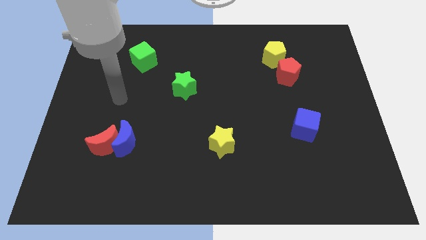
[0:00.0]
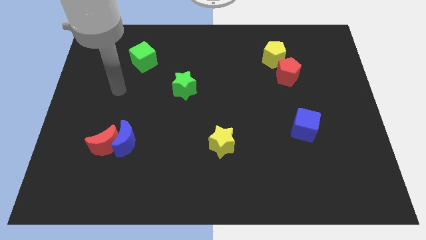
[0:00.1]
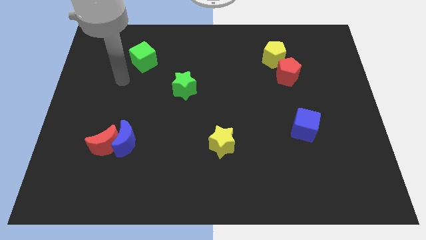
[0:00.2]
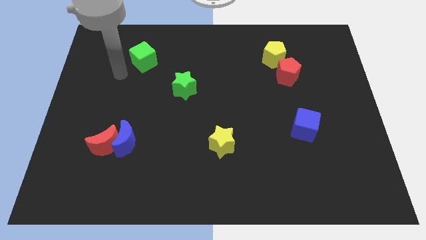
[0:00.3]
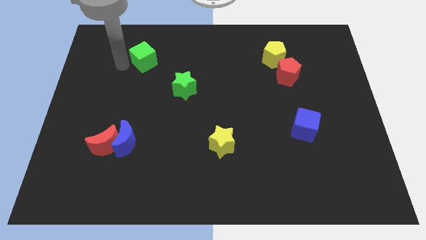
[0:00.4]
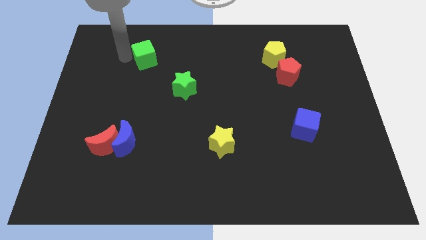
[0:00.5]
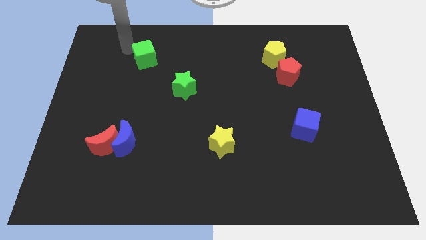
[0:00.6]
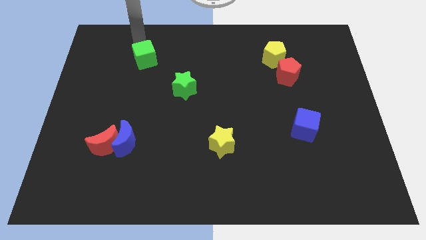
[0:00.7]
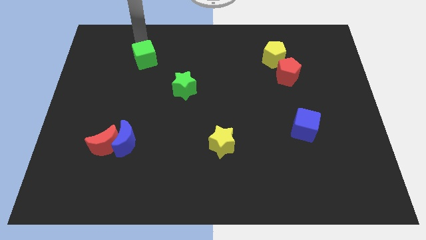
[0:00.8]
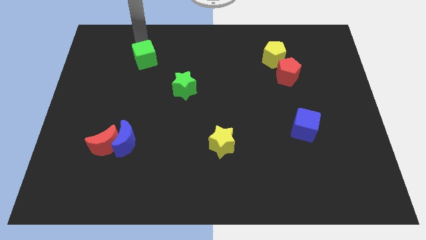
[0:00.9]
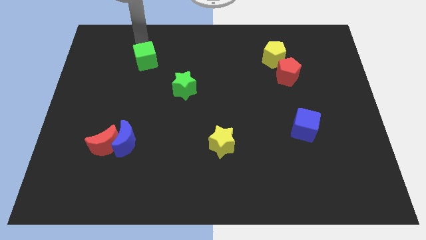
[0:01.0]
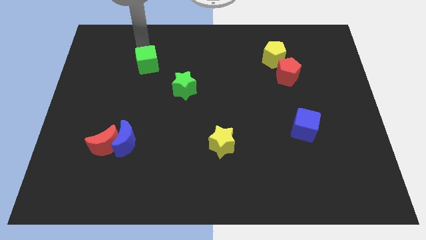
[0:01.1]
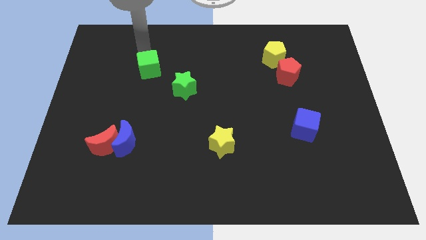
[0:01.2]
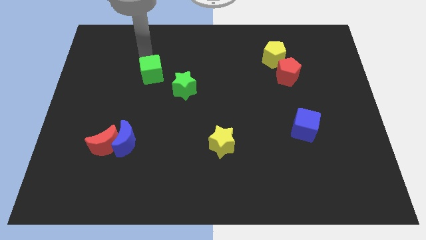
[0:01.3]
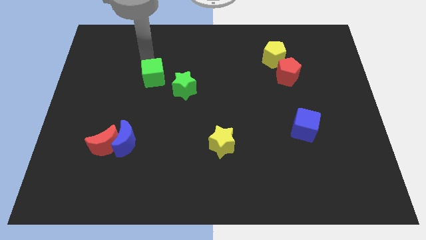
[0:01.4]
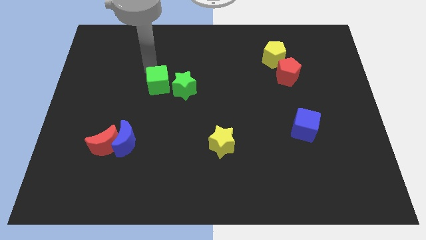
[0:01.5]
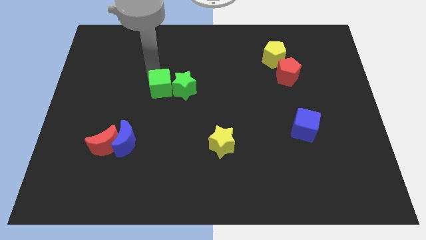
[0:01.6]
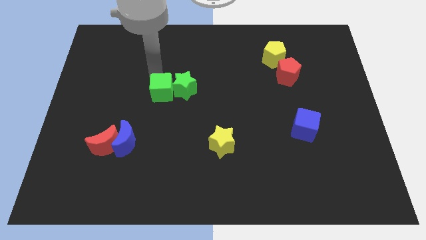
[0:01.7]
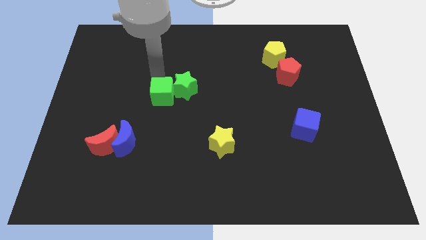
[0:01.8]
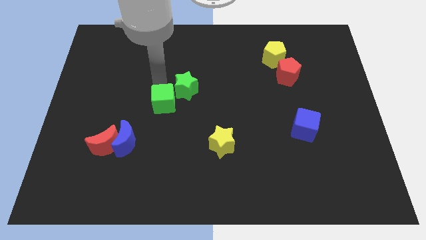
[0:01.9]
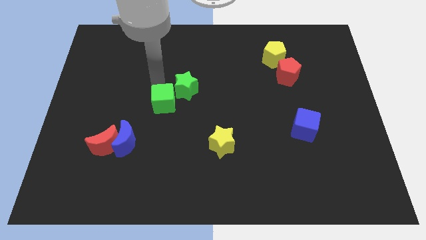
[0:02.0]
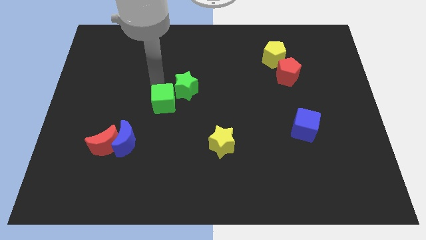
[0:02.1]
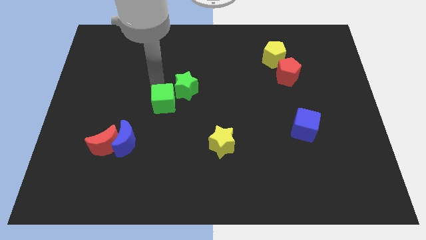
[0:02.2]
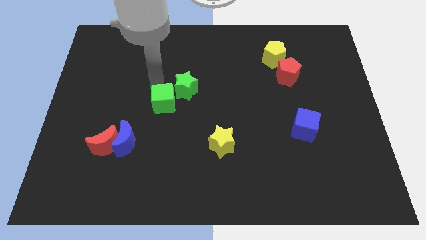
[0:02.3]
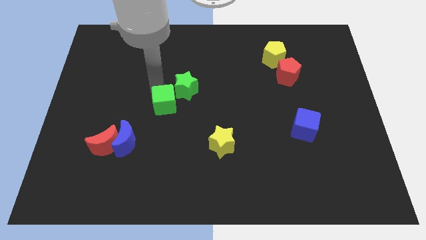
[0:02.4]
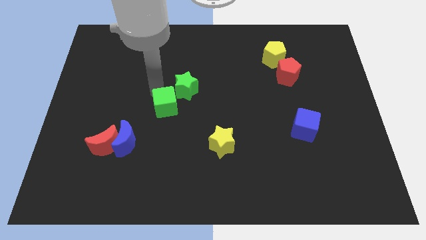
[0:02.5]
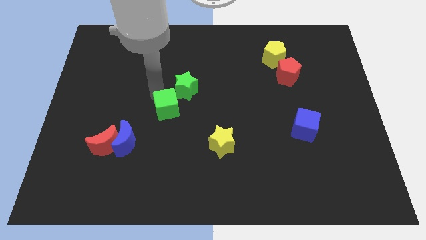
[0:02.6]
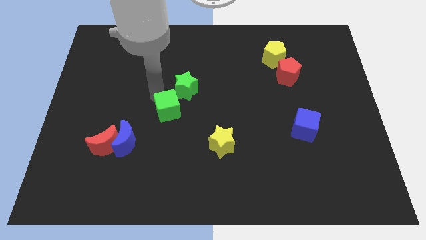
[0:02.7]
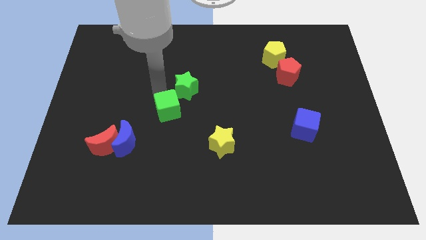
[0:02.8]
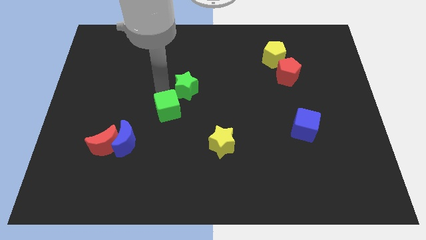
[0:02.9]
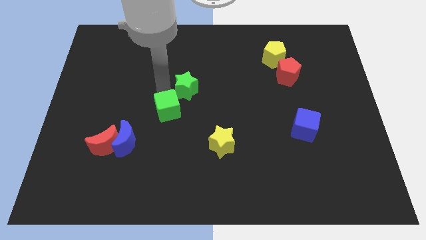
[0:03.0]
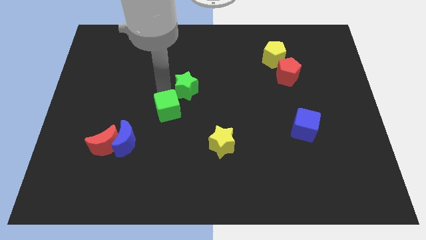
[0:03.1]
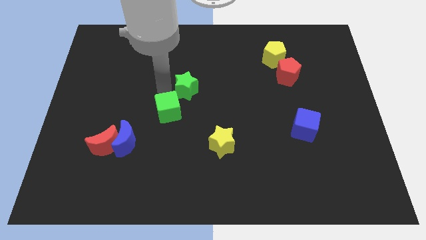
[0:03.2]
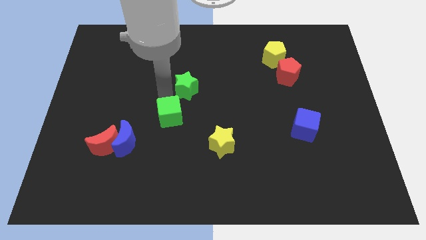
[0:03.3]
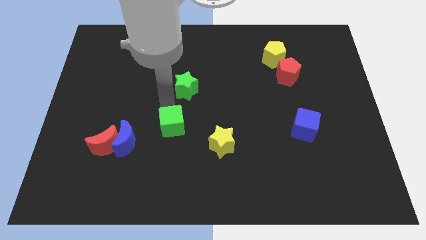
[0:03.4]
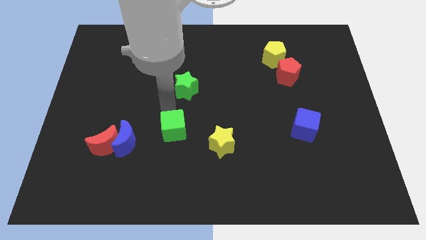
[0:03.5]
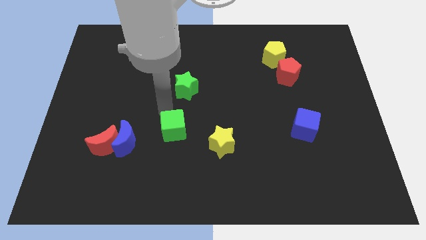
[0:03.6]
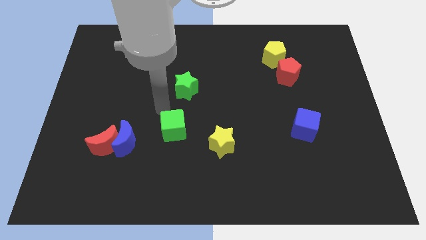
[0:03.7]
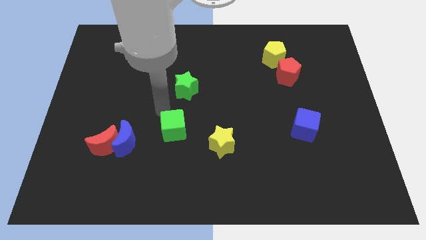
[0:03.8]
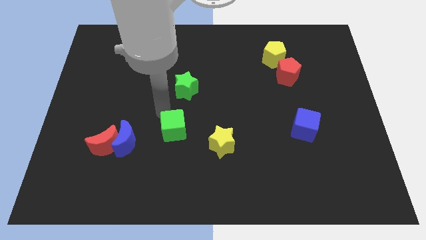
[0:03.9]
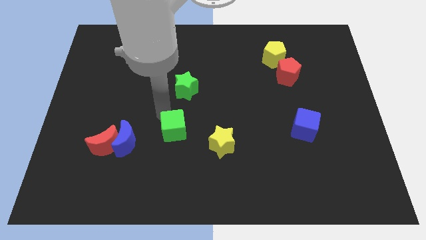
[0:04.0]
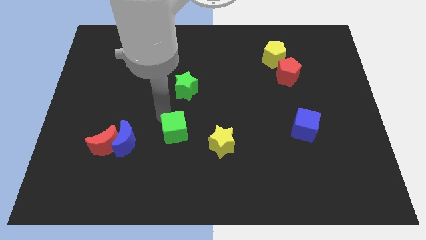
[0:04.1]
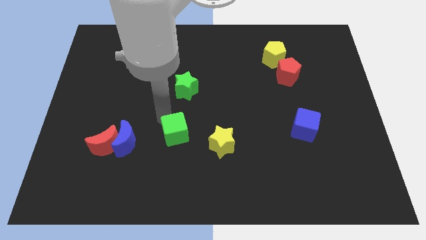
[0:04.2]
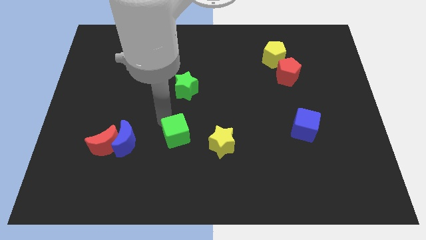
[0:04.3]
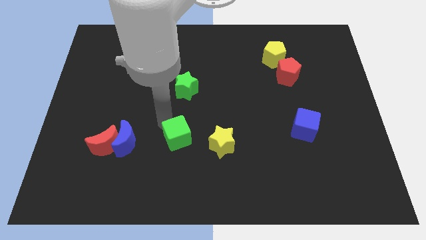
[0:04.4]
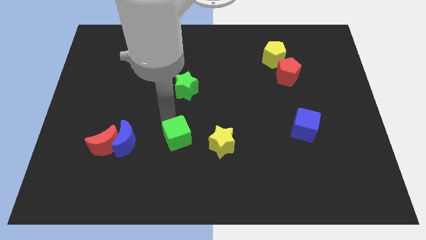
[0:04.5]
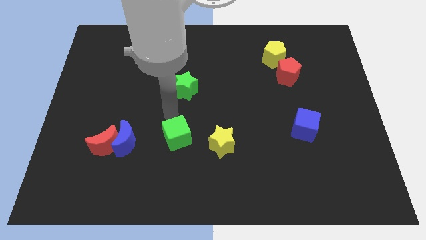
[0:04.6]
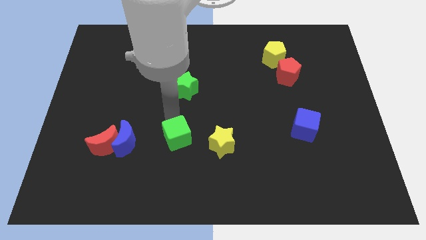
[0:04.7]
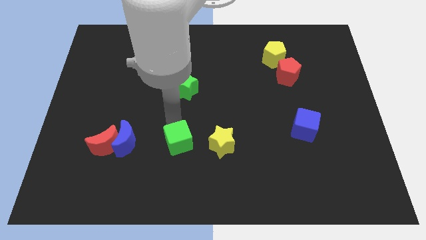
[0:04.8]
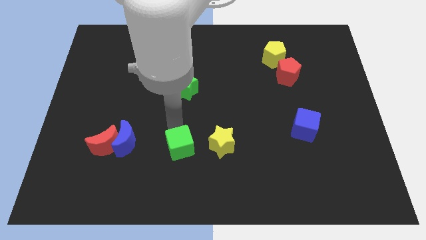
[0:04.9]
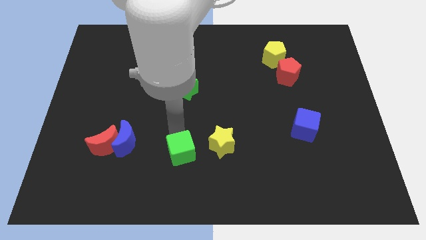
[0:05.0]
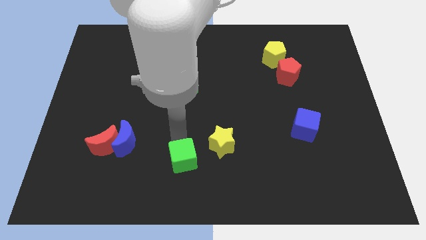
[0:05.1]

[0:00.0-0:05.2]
put the green cube to the bottom

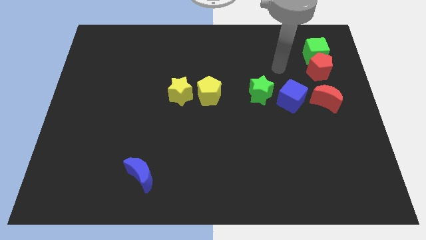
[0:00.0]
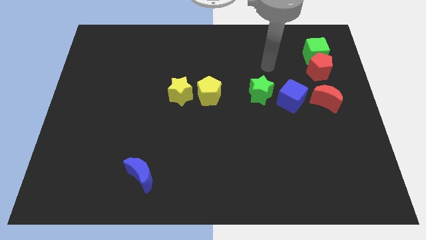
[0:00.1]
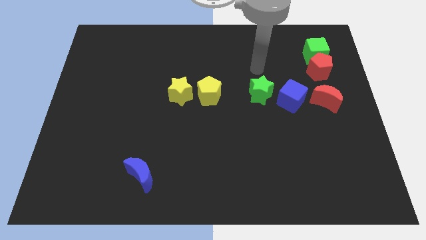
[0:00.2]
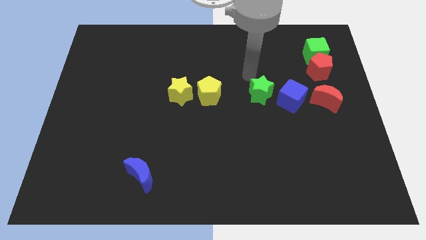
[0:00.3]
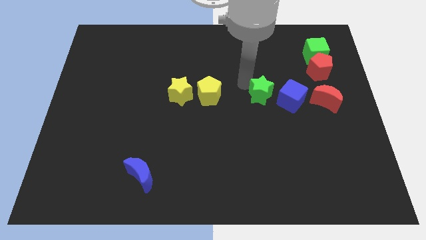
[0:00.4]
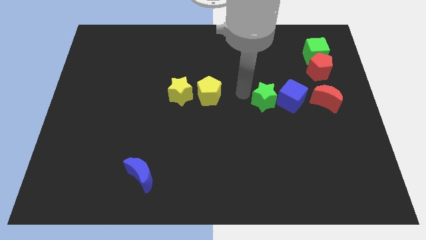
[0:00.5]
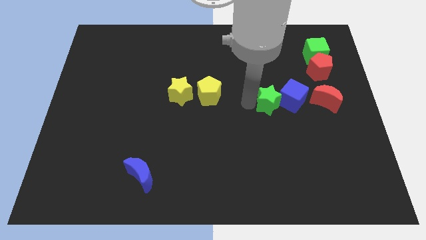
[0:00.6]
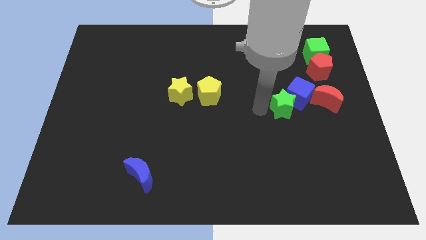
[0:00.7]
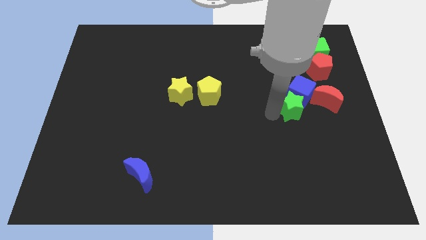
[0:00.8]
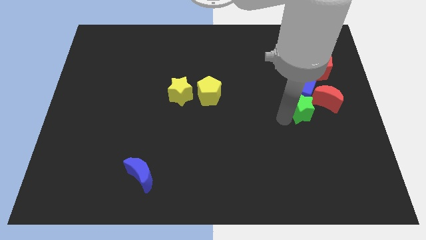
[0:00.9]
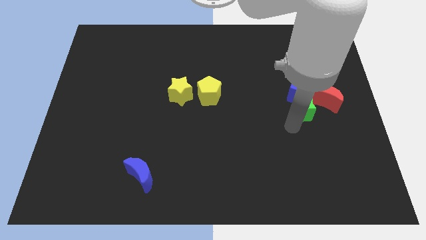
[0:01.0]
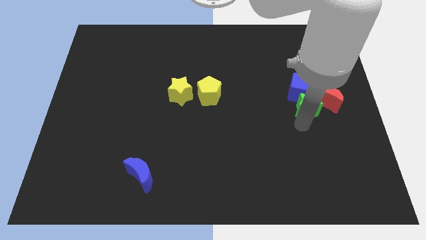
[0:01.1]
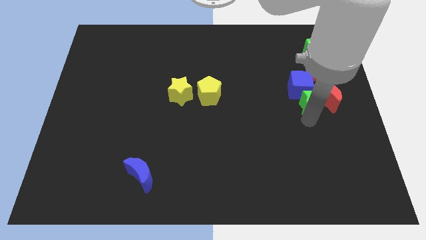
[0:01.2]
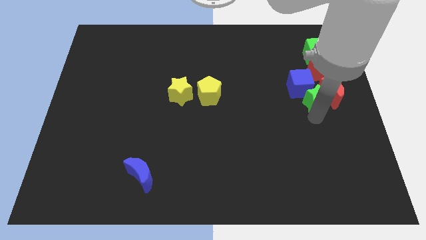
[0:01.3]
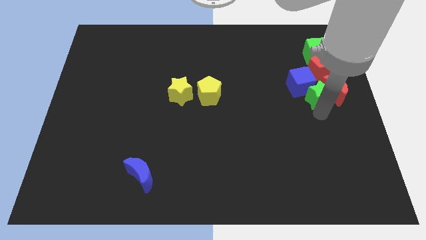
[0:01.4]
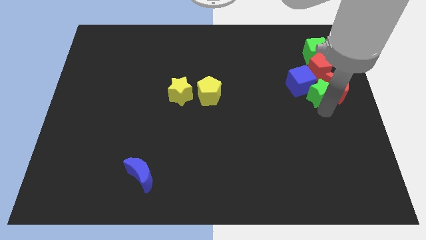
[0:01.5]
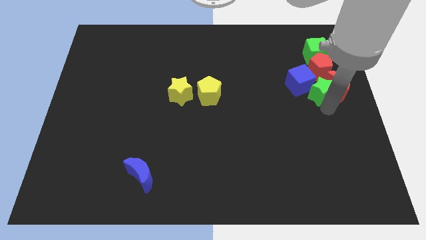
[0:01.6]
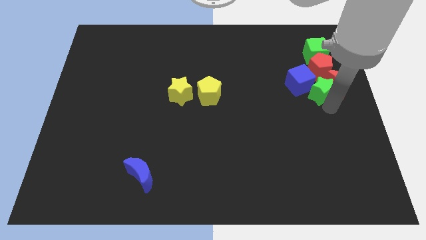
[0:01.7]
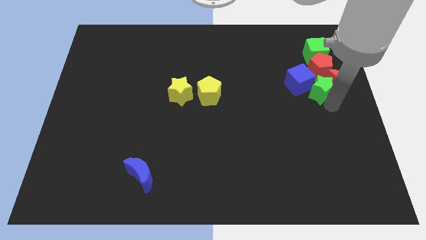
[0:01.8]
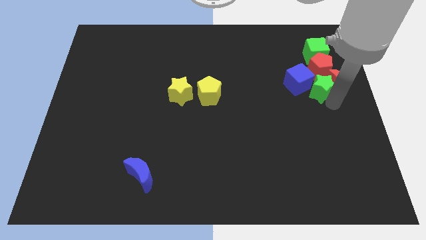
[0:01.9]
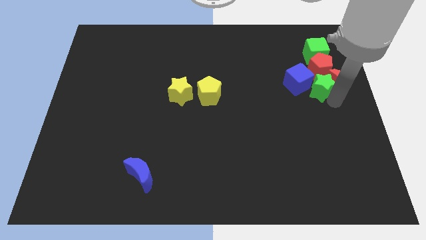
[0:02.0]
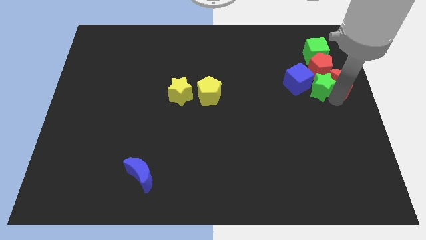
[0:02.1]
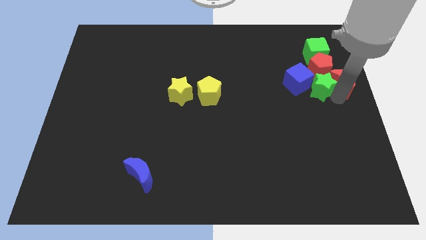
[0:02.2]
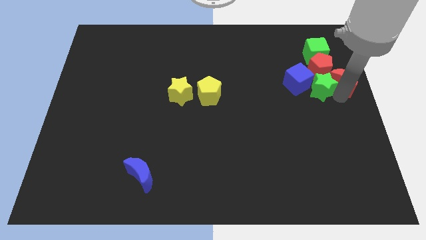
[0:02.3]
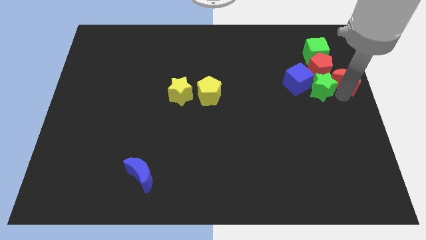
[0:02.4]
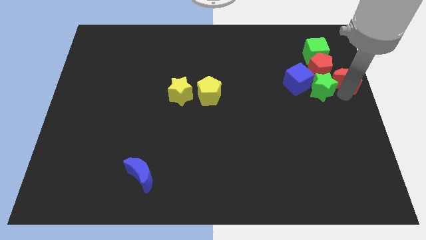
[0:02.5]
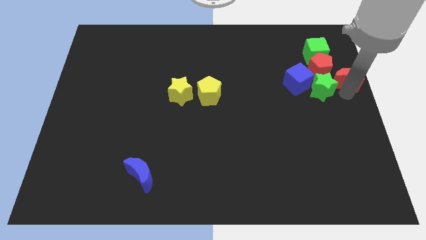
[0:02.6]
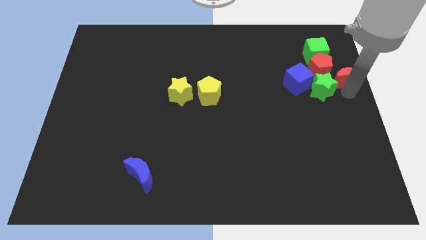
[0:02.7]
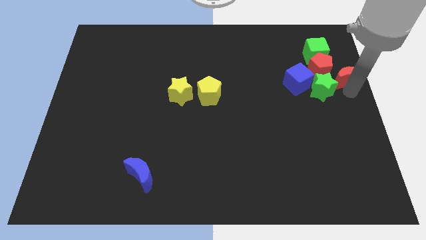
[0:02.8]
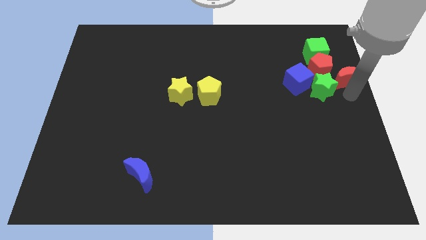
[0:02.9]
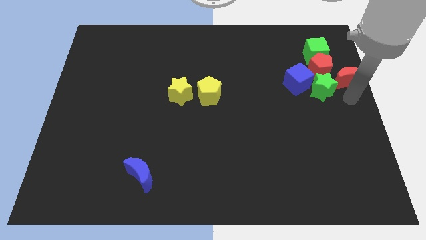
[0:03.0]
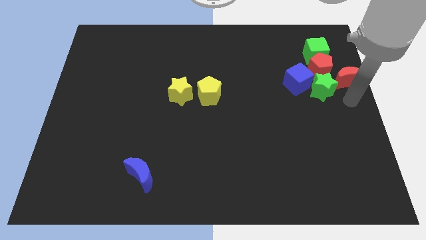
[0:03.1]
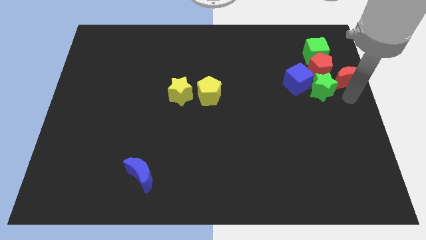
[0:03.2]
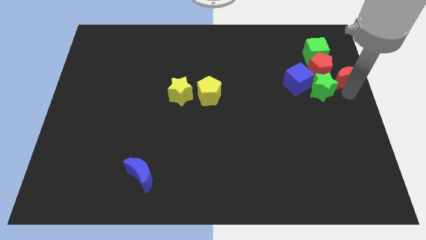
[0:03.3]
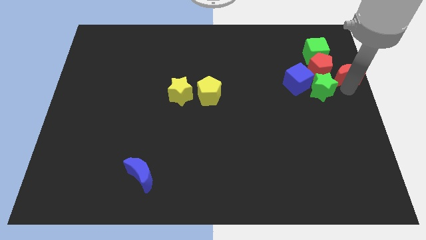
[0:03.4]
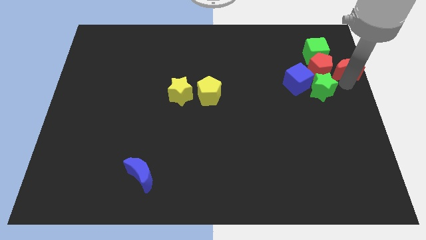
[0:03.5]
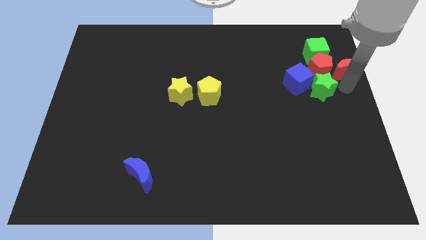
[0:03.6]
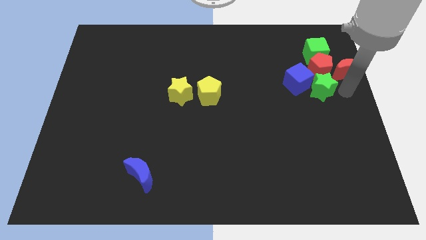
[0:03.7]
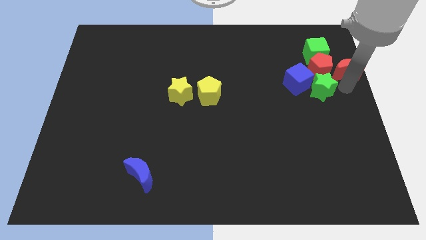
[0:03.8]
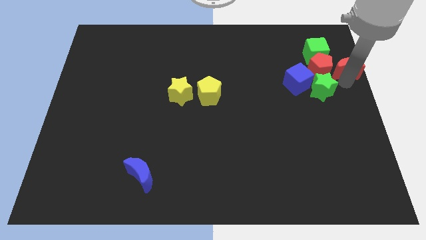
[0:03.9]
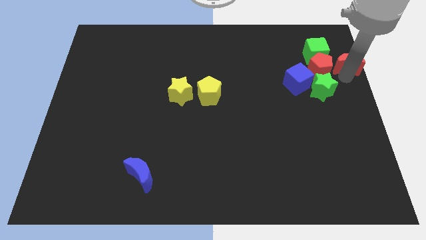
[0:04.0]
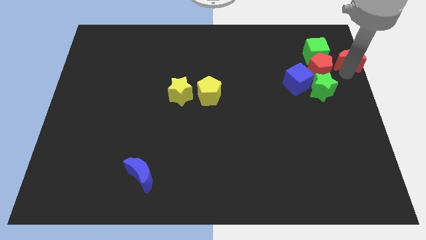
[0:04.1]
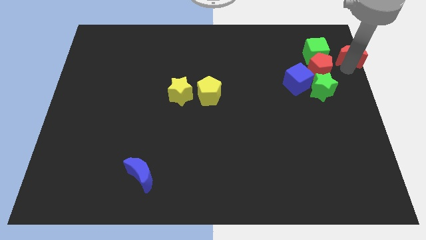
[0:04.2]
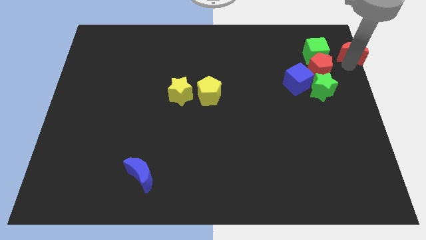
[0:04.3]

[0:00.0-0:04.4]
push the red moon to the top right
